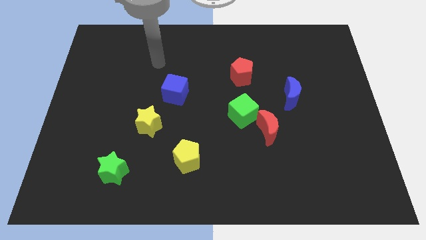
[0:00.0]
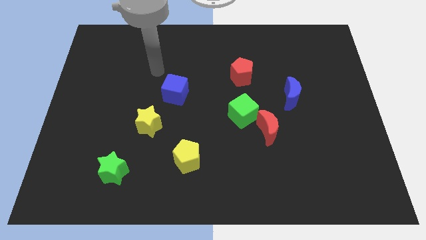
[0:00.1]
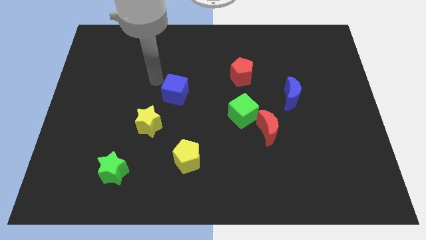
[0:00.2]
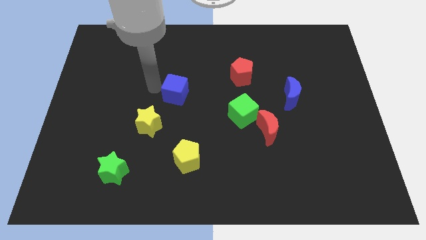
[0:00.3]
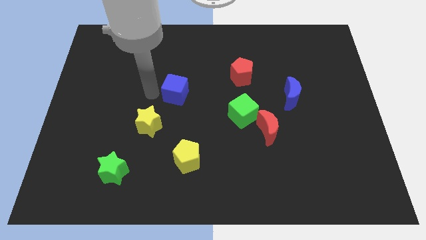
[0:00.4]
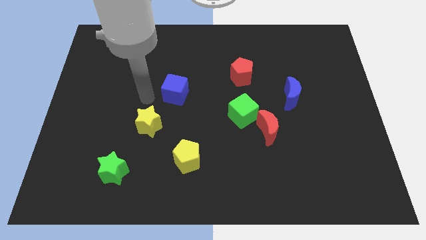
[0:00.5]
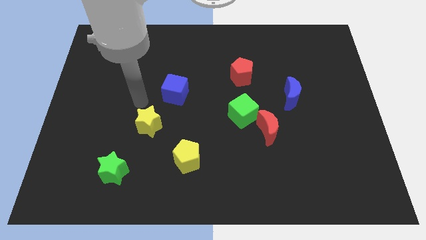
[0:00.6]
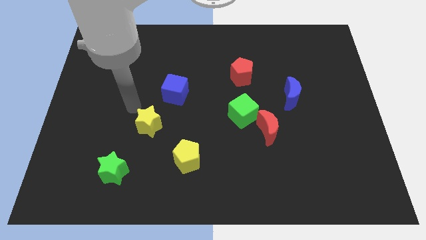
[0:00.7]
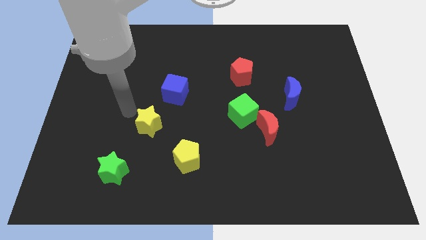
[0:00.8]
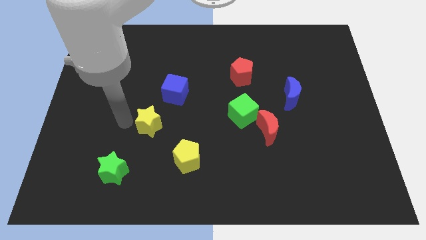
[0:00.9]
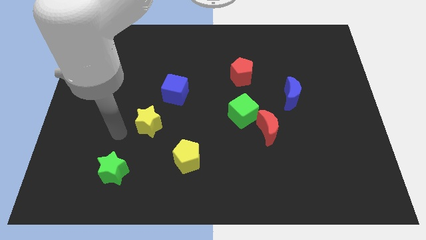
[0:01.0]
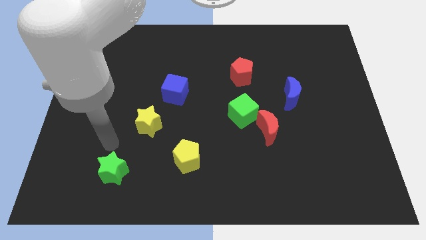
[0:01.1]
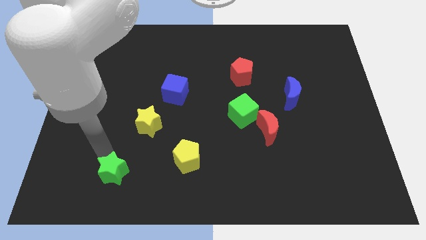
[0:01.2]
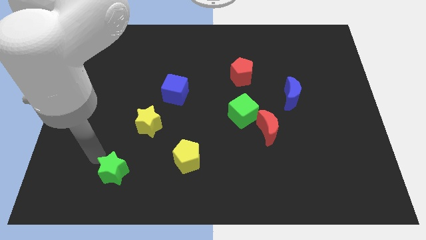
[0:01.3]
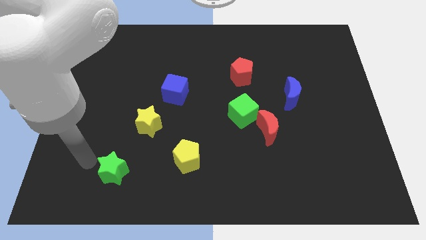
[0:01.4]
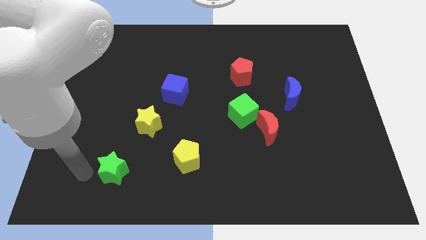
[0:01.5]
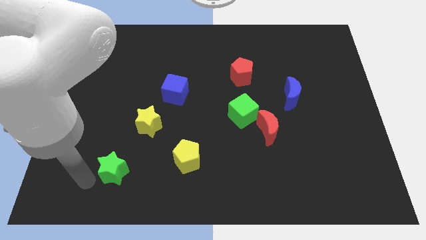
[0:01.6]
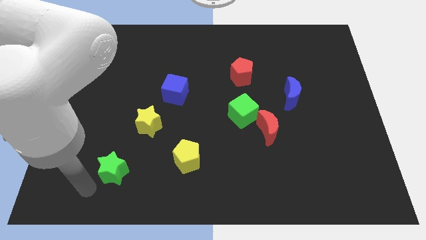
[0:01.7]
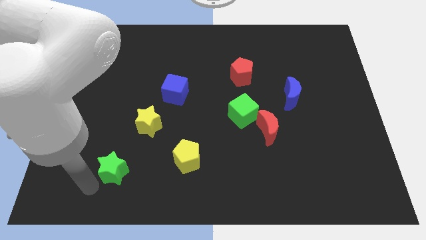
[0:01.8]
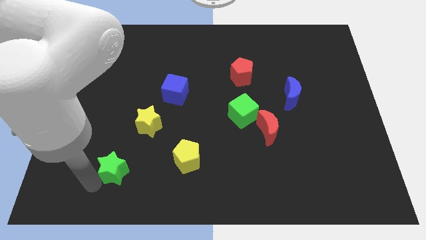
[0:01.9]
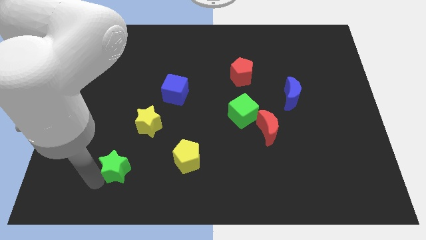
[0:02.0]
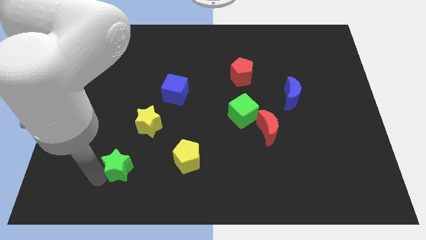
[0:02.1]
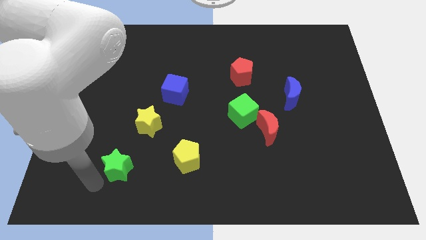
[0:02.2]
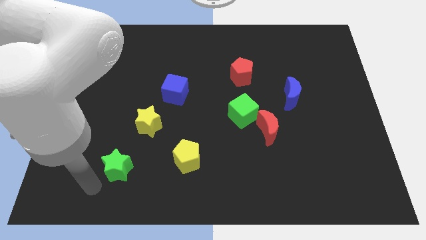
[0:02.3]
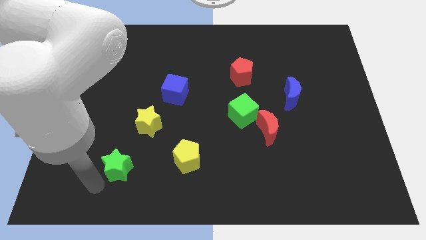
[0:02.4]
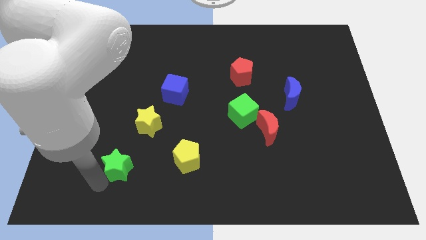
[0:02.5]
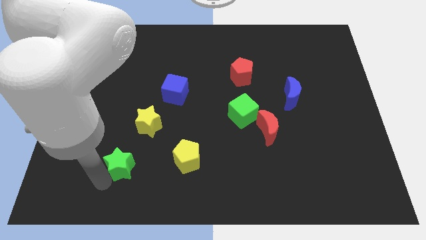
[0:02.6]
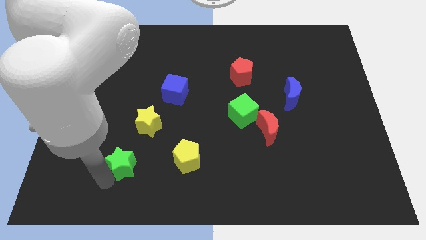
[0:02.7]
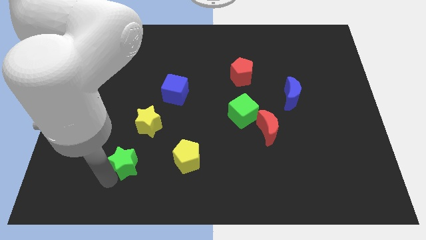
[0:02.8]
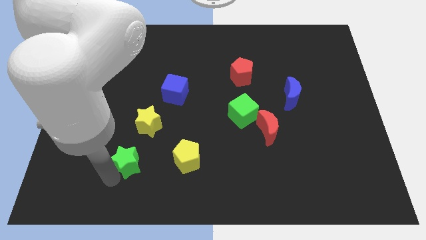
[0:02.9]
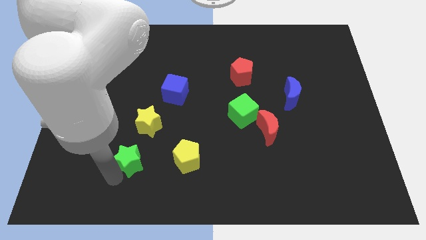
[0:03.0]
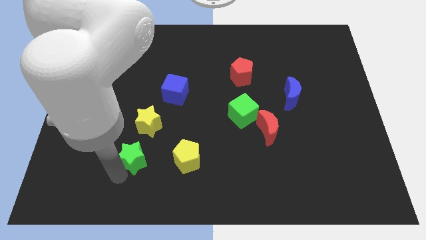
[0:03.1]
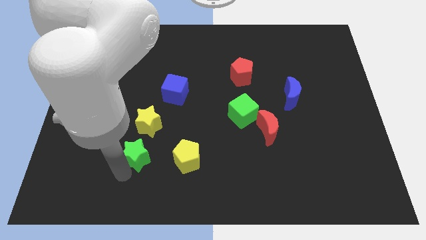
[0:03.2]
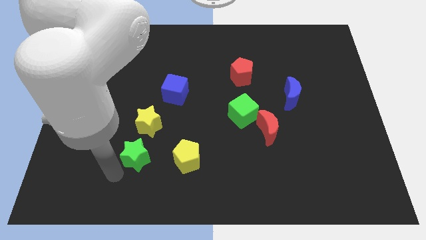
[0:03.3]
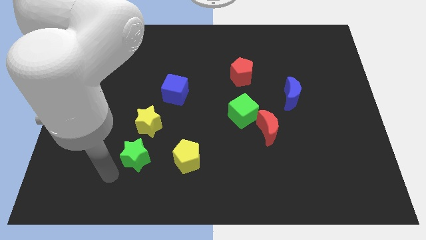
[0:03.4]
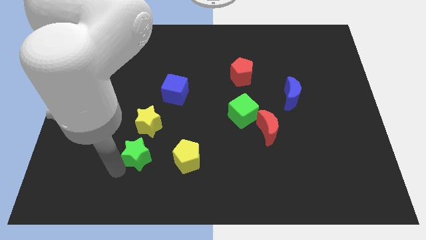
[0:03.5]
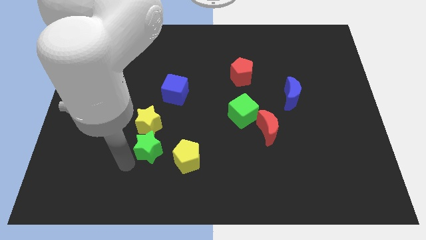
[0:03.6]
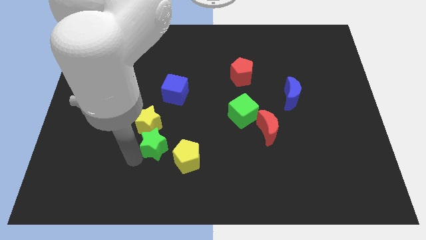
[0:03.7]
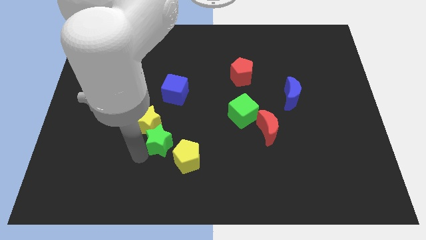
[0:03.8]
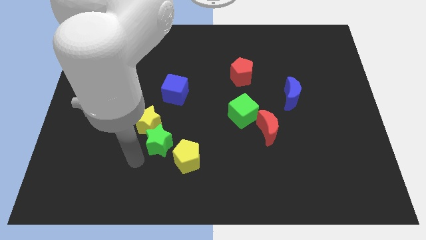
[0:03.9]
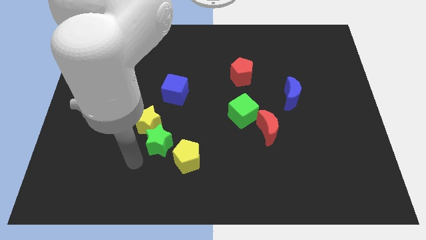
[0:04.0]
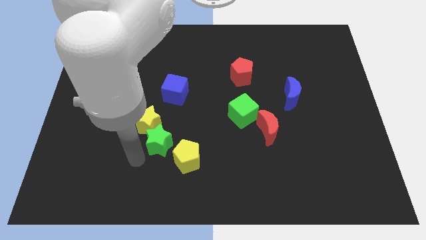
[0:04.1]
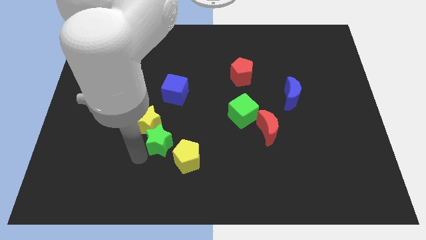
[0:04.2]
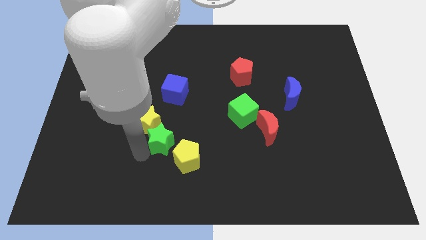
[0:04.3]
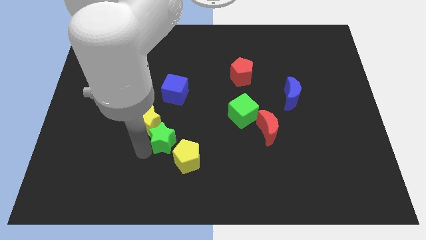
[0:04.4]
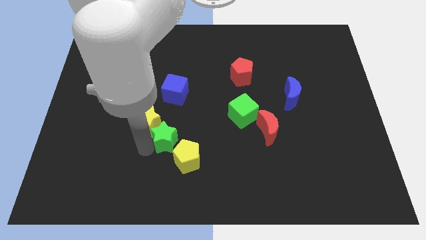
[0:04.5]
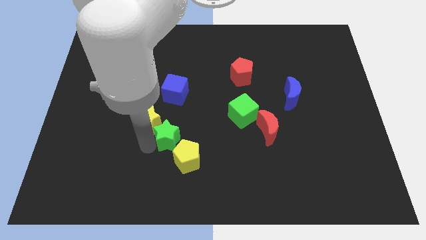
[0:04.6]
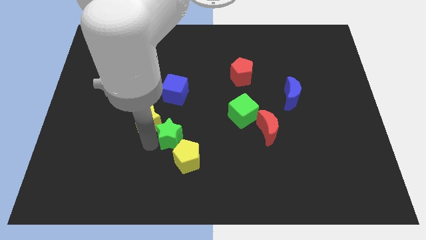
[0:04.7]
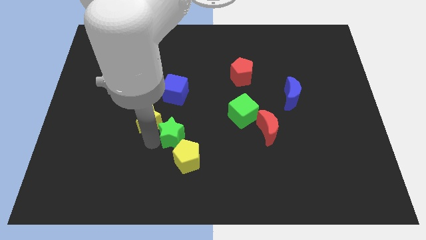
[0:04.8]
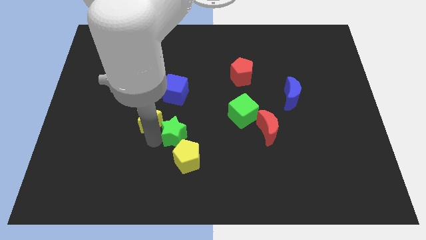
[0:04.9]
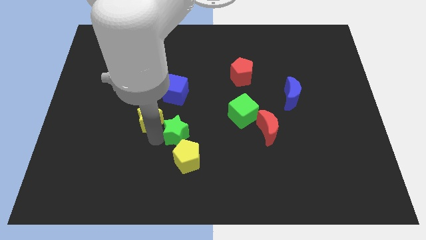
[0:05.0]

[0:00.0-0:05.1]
move the green star to the center of the board

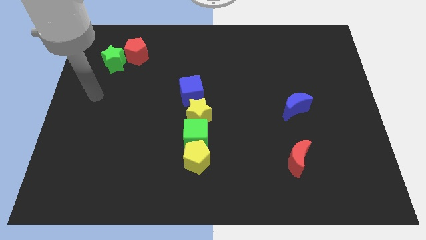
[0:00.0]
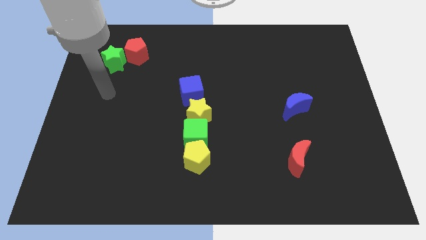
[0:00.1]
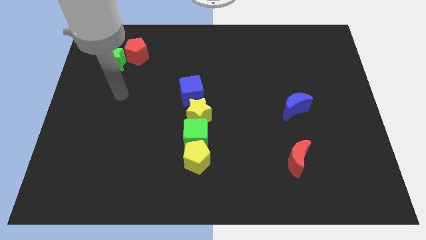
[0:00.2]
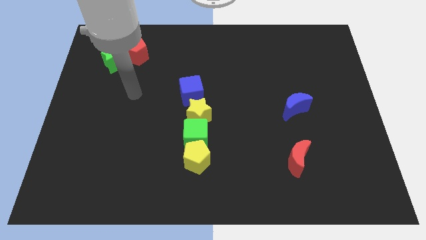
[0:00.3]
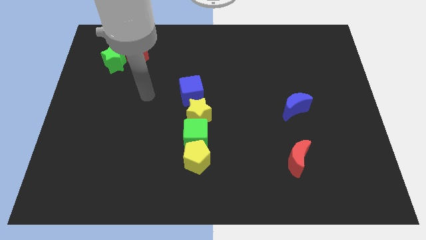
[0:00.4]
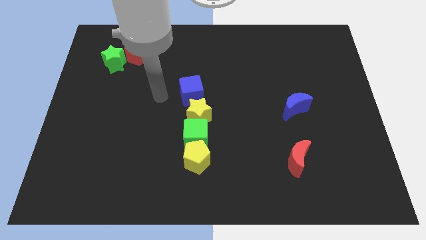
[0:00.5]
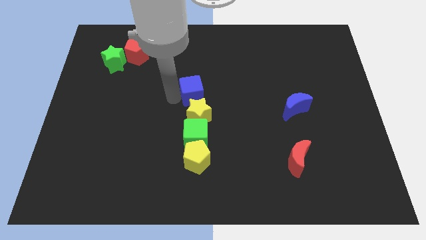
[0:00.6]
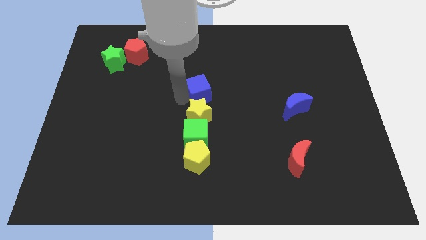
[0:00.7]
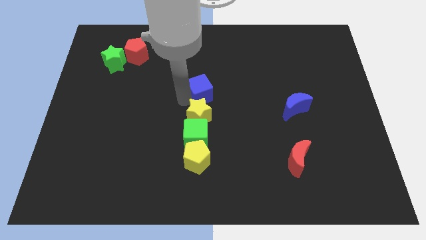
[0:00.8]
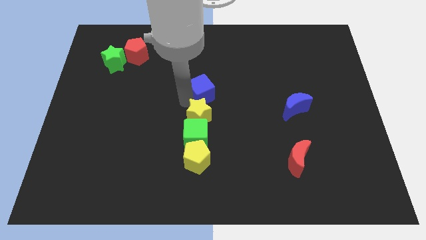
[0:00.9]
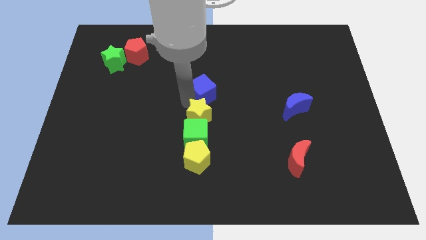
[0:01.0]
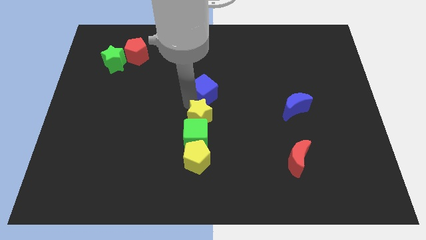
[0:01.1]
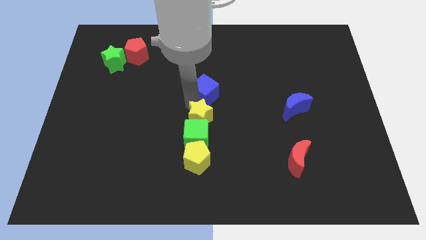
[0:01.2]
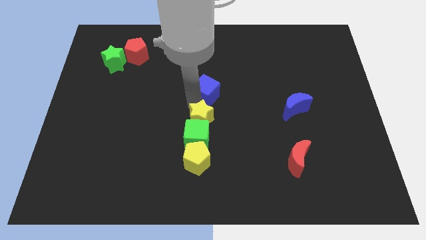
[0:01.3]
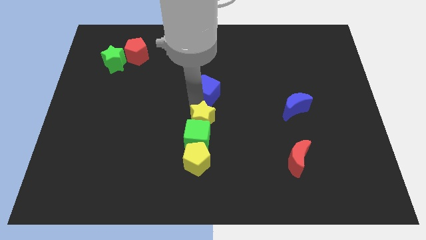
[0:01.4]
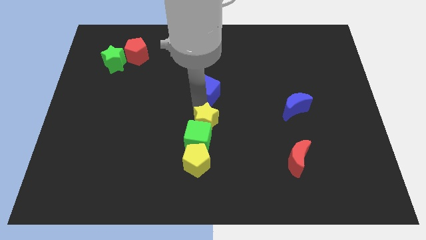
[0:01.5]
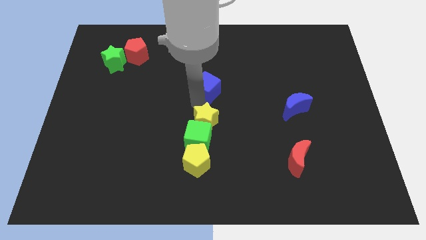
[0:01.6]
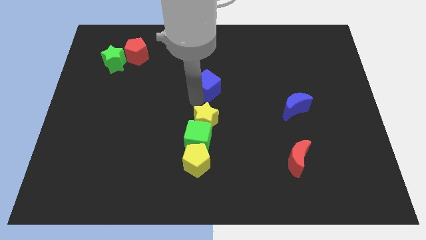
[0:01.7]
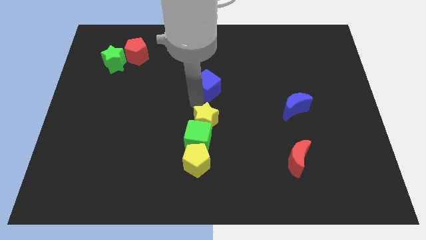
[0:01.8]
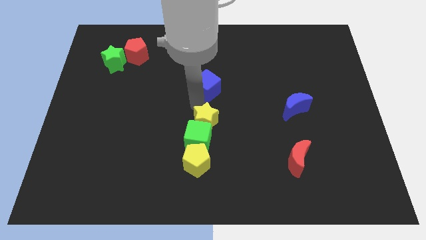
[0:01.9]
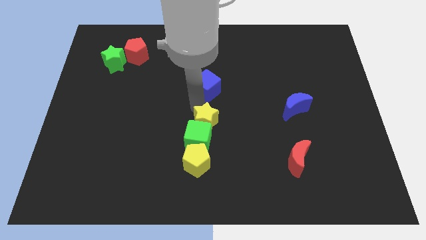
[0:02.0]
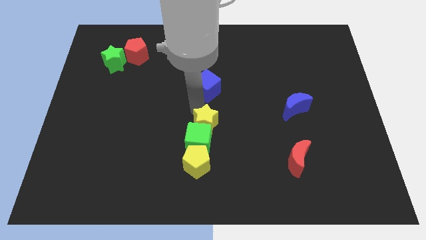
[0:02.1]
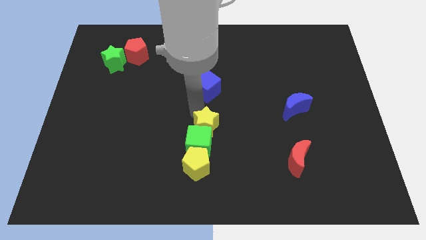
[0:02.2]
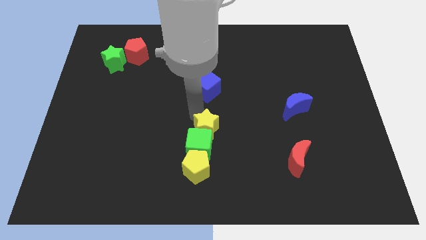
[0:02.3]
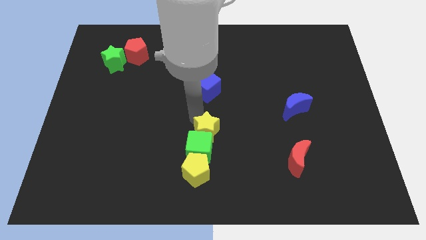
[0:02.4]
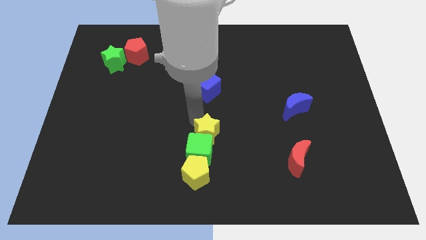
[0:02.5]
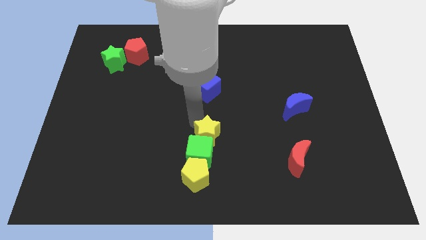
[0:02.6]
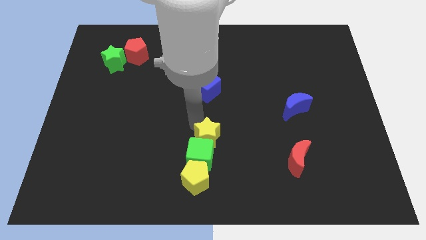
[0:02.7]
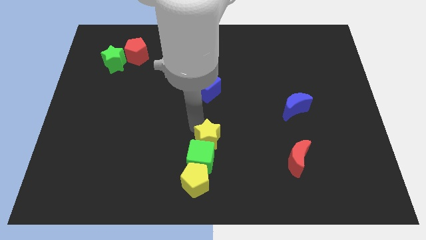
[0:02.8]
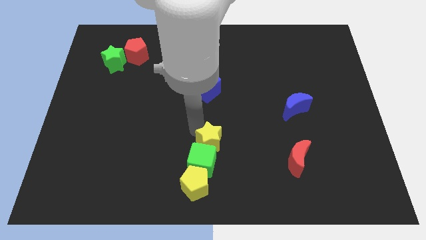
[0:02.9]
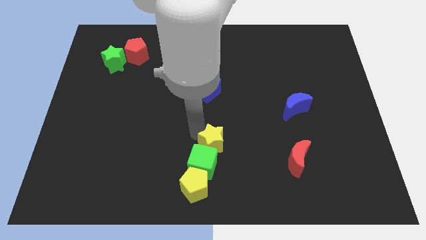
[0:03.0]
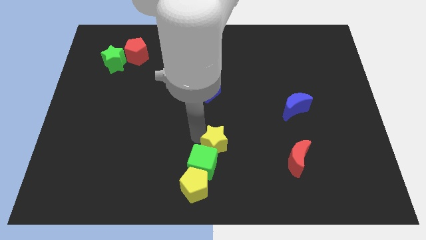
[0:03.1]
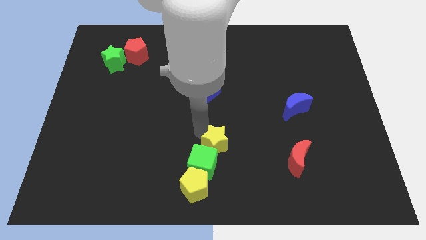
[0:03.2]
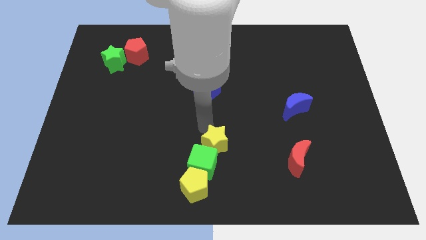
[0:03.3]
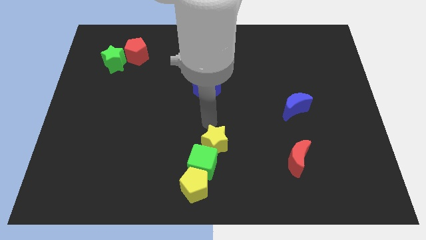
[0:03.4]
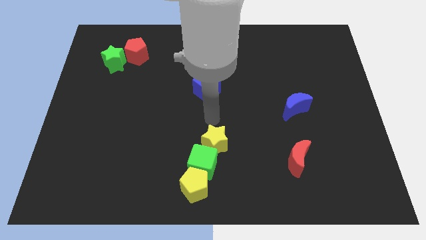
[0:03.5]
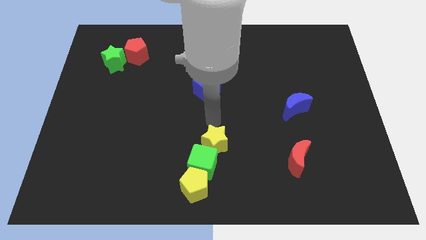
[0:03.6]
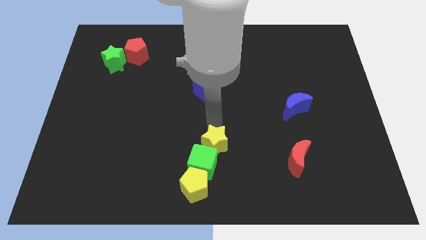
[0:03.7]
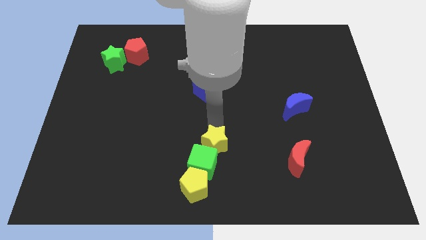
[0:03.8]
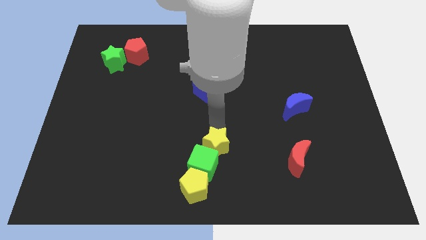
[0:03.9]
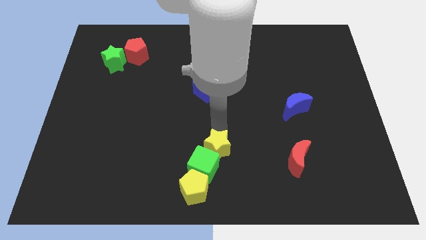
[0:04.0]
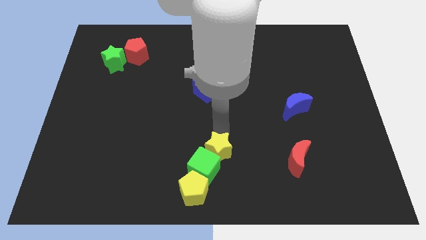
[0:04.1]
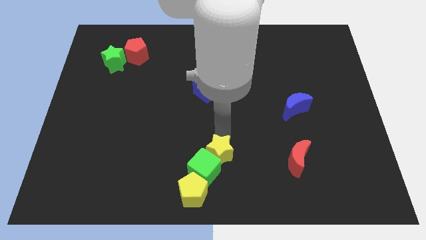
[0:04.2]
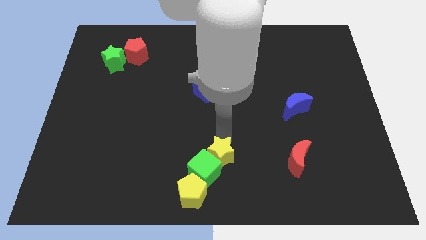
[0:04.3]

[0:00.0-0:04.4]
push the yellow star to the bottom
